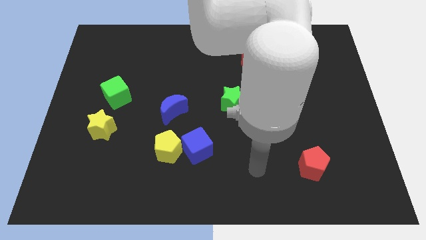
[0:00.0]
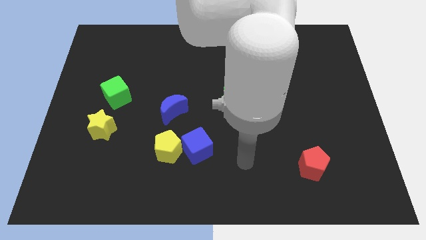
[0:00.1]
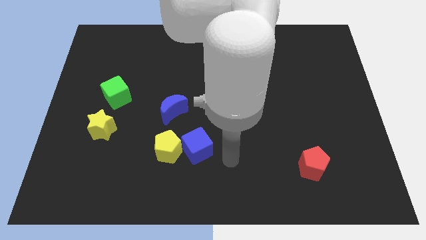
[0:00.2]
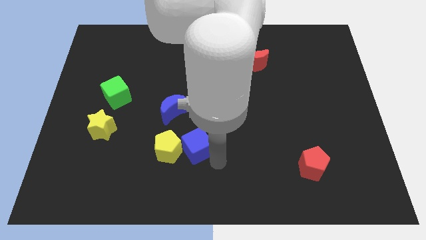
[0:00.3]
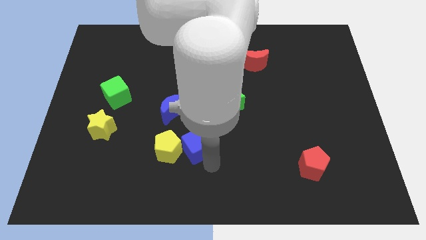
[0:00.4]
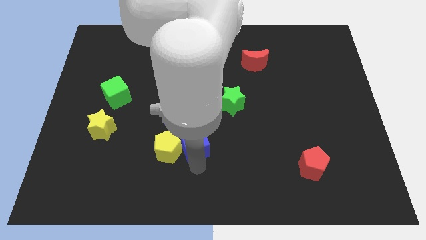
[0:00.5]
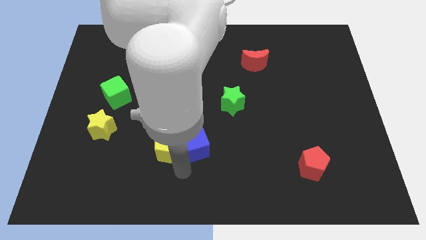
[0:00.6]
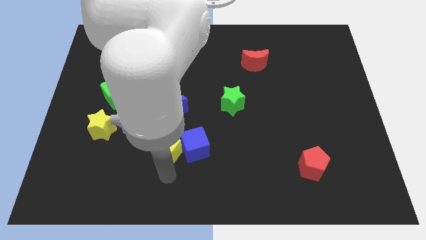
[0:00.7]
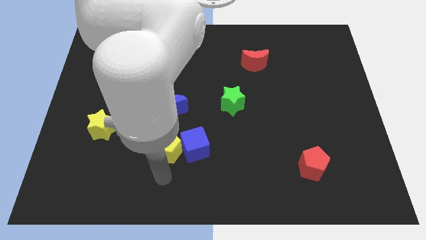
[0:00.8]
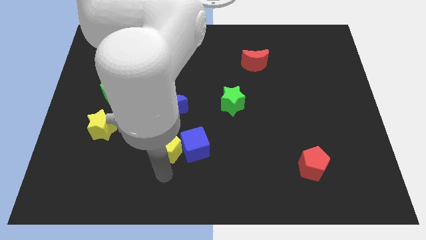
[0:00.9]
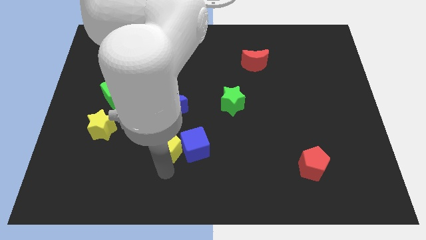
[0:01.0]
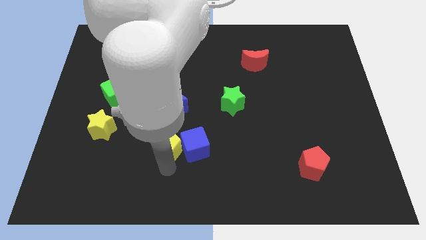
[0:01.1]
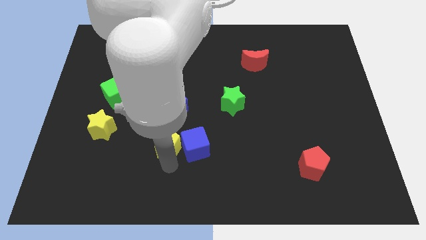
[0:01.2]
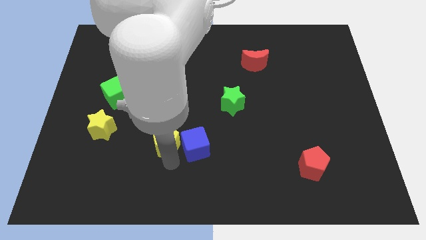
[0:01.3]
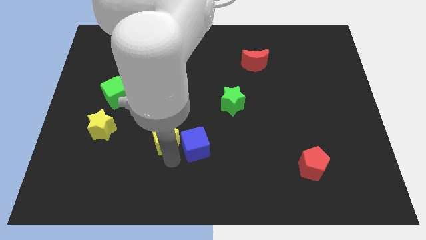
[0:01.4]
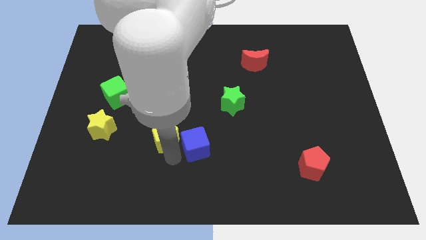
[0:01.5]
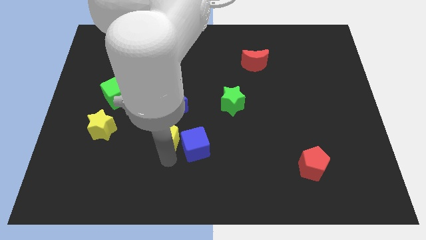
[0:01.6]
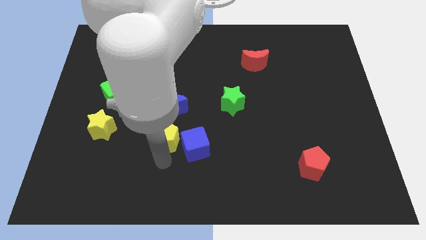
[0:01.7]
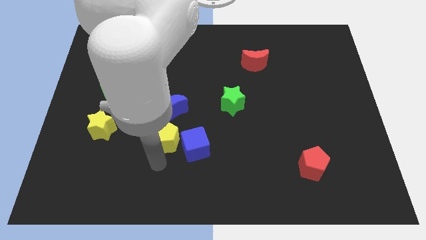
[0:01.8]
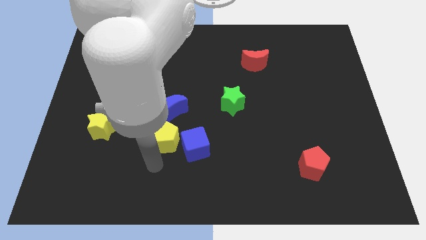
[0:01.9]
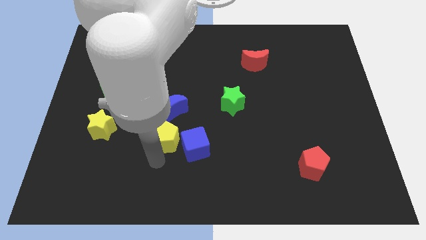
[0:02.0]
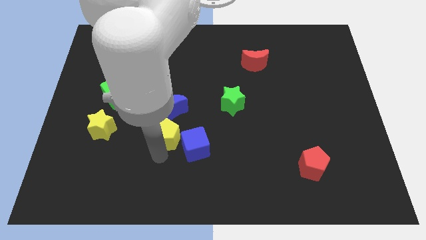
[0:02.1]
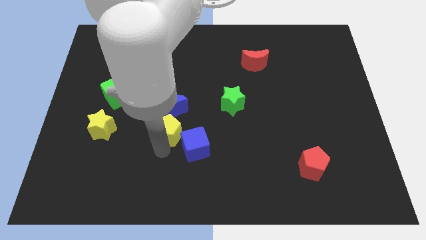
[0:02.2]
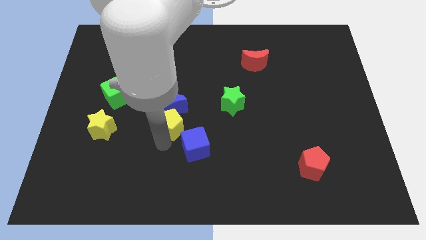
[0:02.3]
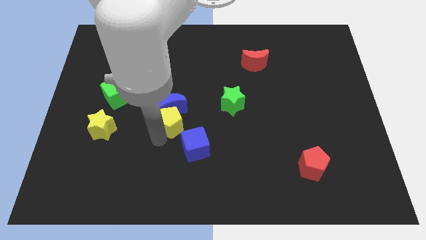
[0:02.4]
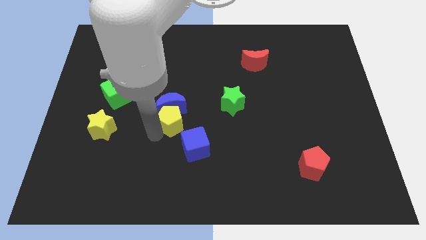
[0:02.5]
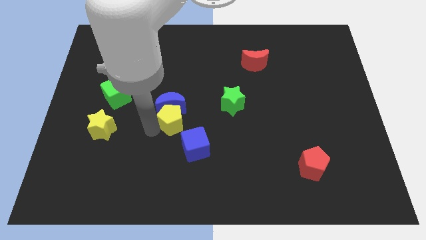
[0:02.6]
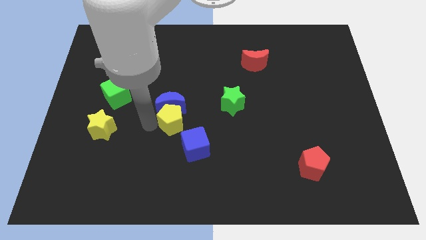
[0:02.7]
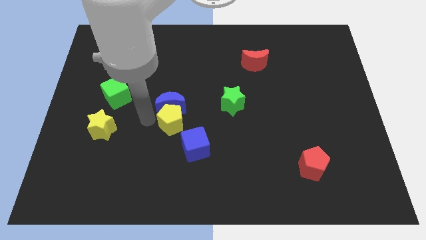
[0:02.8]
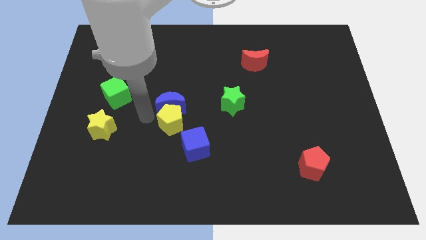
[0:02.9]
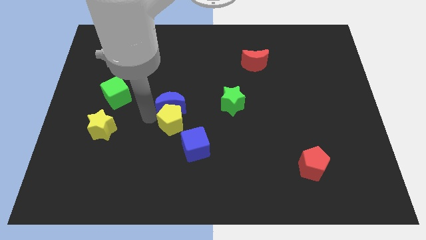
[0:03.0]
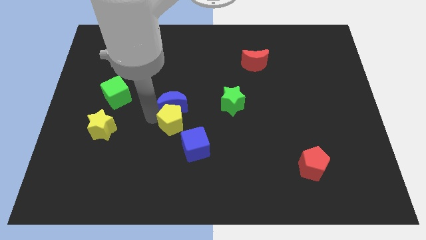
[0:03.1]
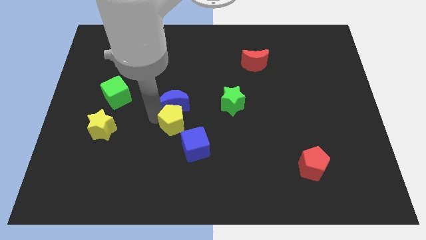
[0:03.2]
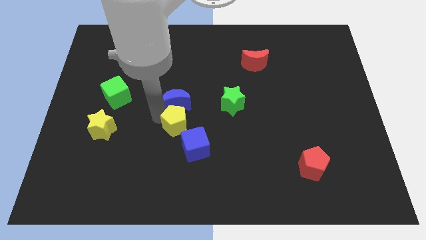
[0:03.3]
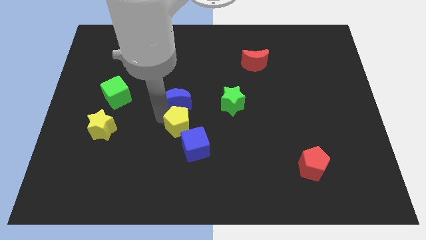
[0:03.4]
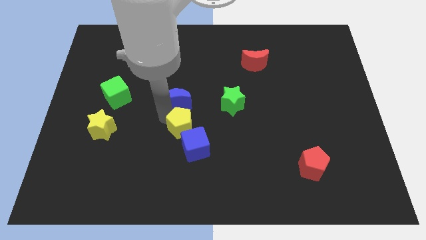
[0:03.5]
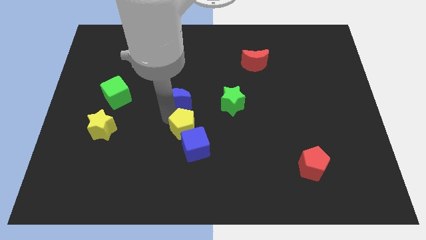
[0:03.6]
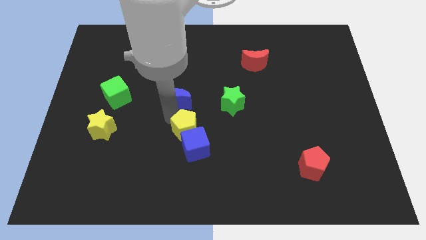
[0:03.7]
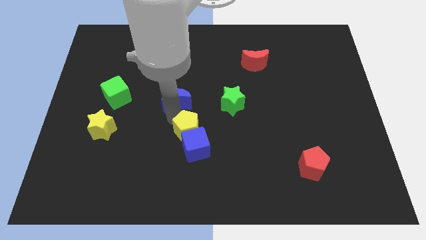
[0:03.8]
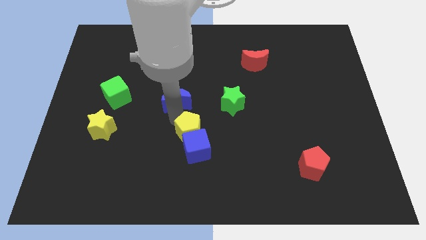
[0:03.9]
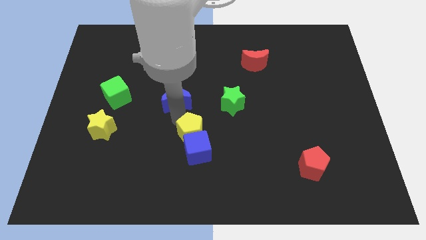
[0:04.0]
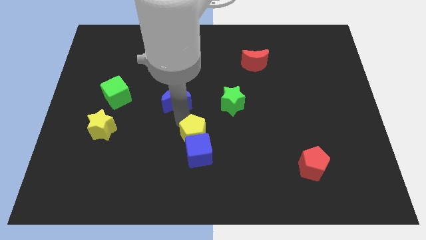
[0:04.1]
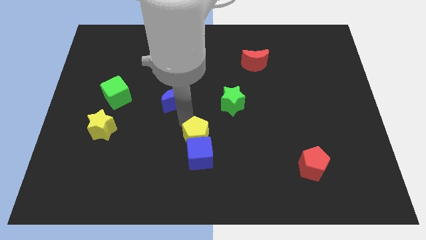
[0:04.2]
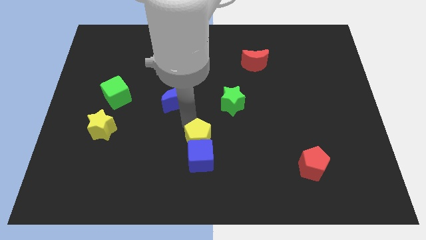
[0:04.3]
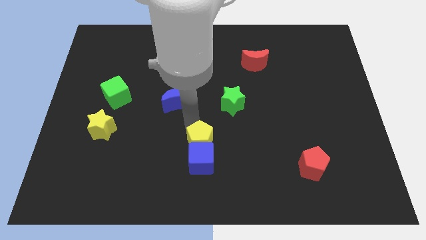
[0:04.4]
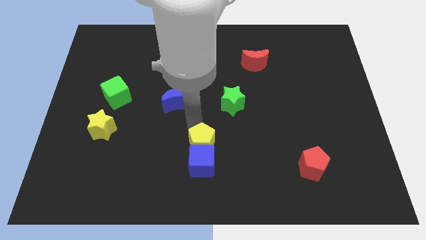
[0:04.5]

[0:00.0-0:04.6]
slide the yellow pentagon right somewhat

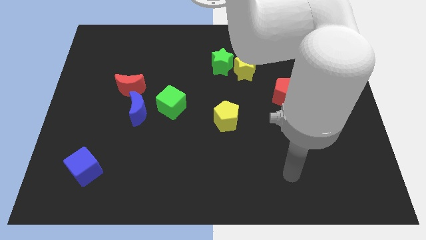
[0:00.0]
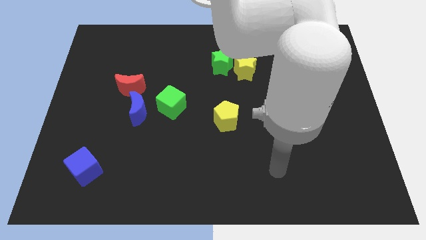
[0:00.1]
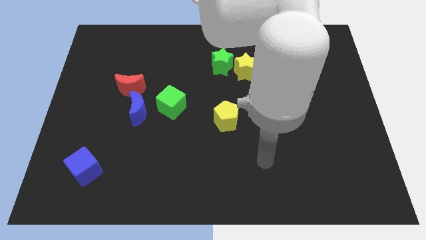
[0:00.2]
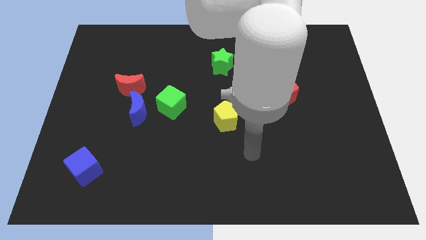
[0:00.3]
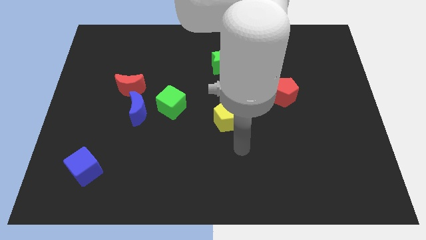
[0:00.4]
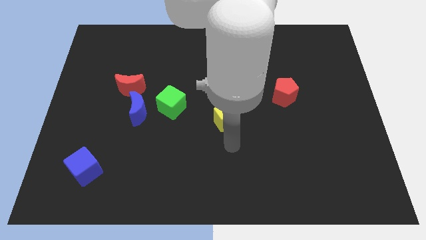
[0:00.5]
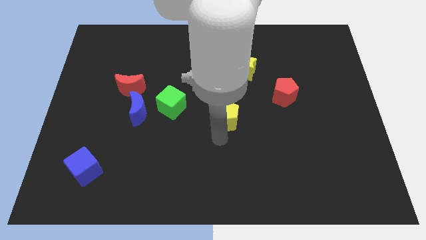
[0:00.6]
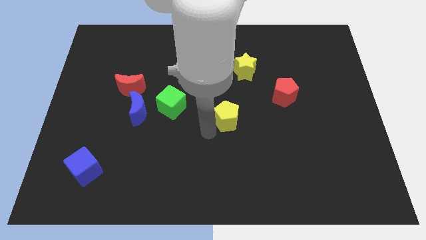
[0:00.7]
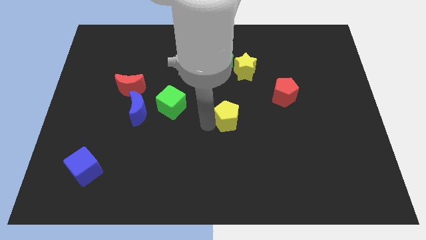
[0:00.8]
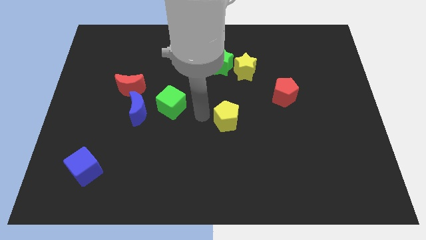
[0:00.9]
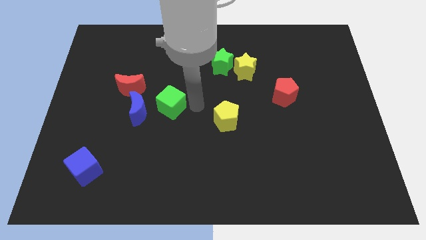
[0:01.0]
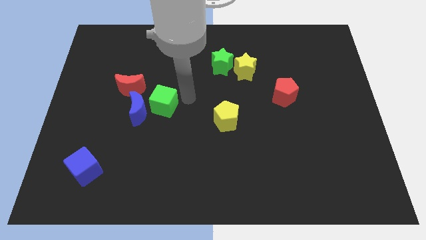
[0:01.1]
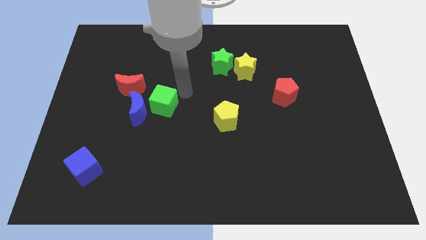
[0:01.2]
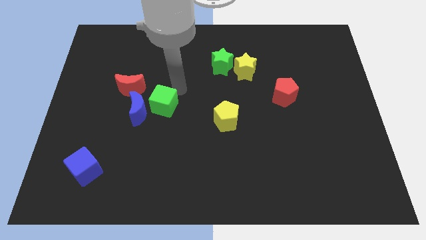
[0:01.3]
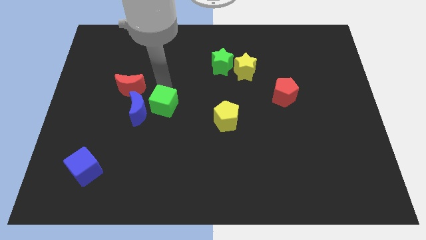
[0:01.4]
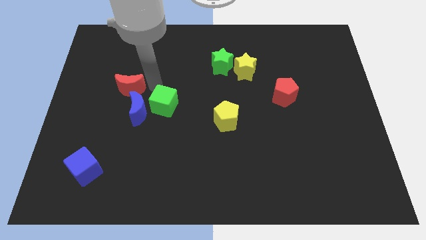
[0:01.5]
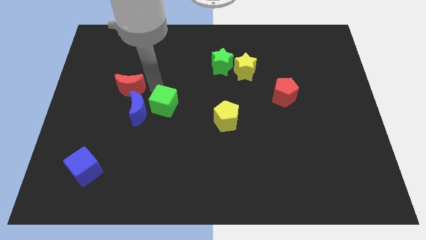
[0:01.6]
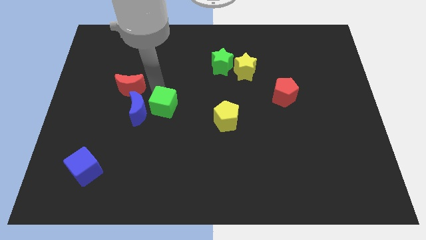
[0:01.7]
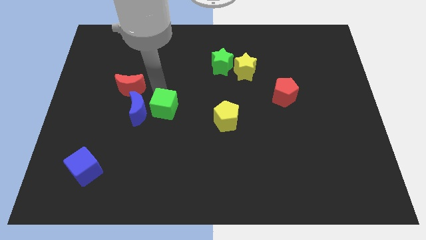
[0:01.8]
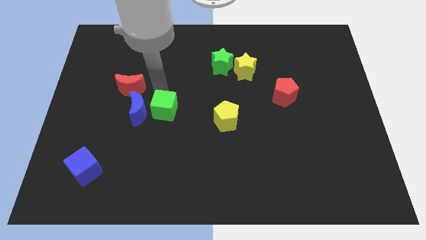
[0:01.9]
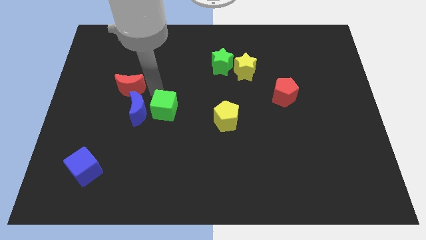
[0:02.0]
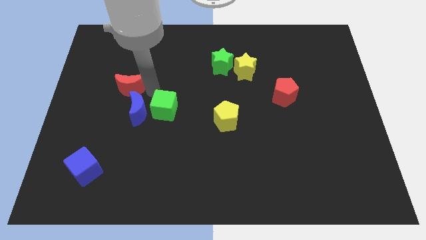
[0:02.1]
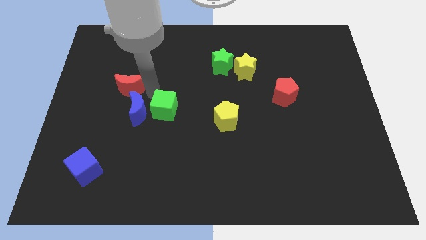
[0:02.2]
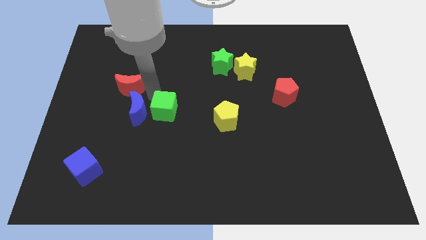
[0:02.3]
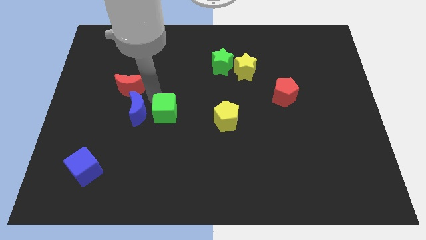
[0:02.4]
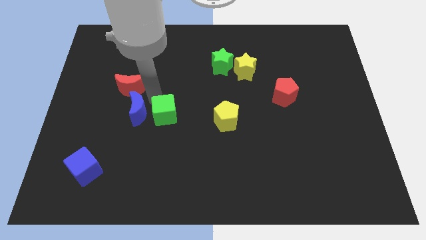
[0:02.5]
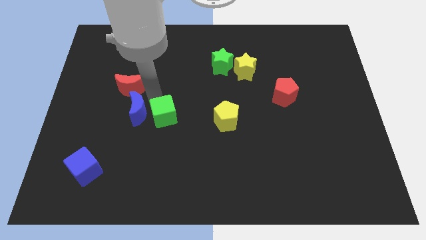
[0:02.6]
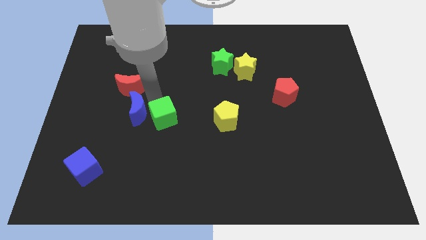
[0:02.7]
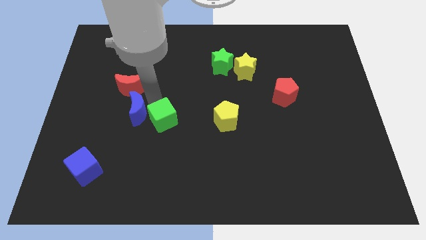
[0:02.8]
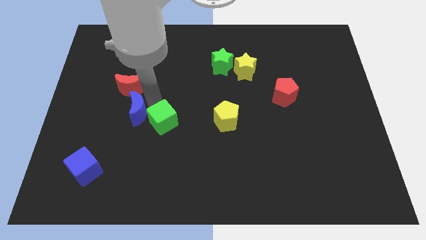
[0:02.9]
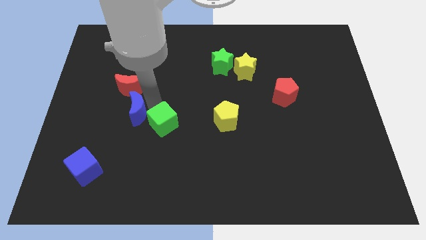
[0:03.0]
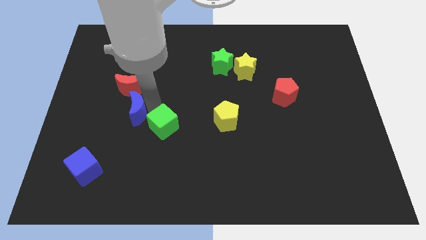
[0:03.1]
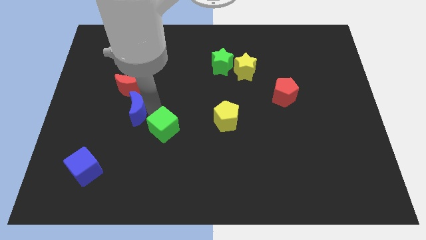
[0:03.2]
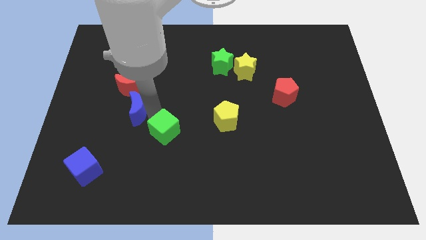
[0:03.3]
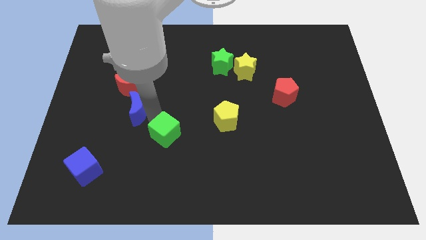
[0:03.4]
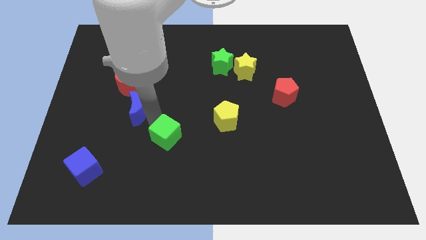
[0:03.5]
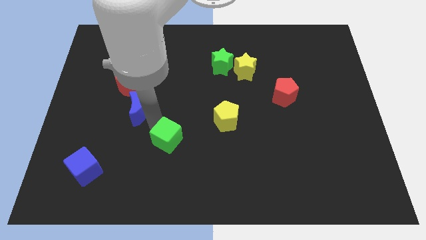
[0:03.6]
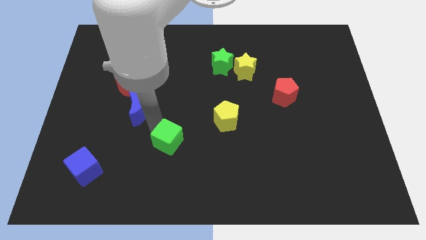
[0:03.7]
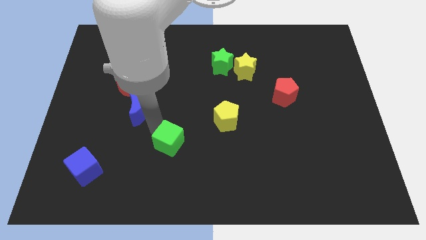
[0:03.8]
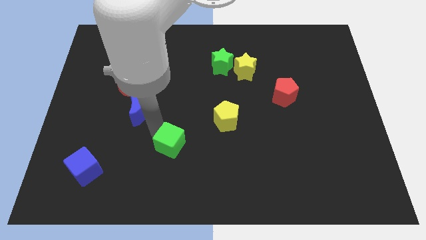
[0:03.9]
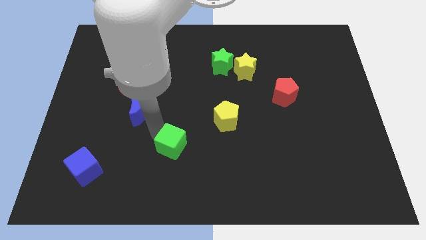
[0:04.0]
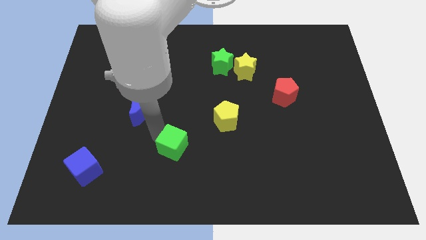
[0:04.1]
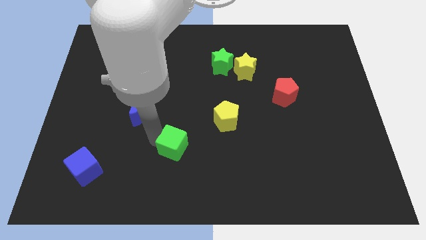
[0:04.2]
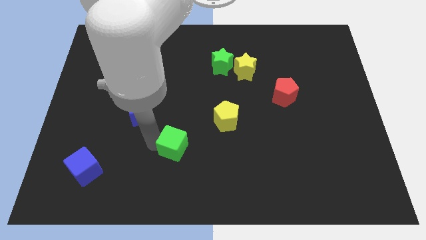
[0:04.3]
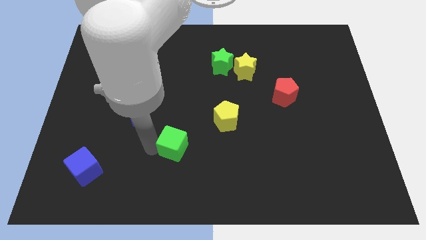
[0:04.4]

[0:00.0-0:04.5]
slide the green cube a little bit downwards and right diagonally
